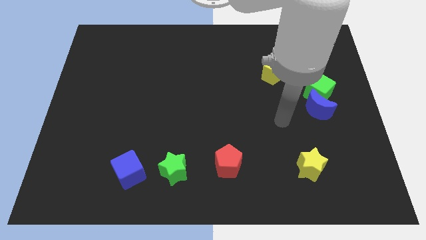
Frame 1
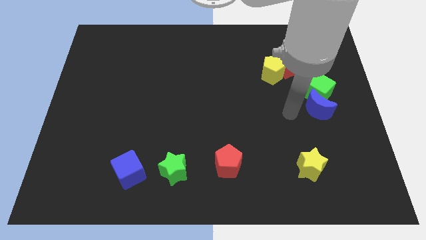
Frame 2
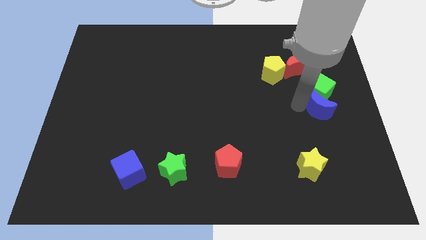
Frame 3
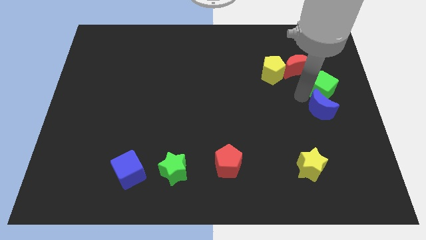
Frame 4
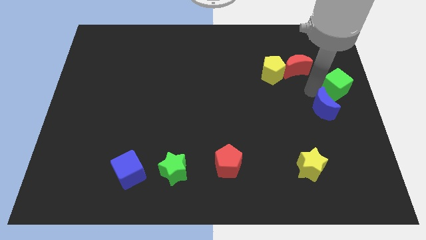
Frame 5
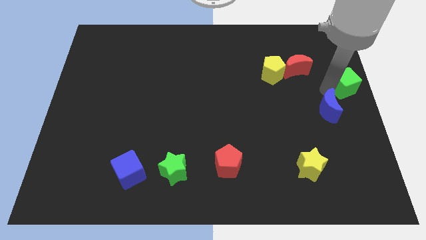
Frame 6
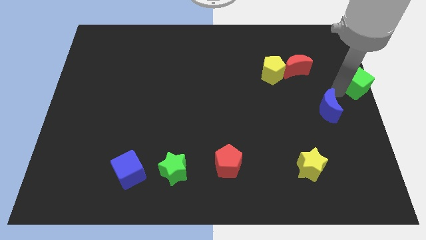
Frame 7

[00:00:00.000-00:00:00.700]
move the blue moon away from the green cube

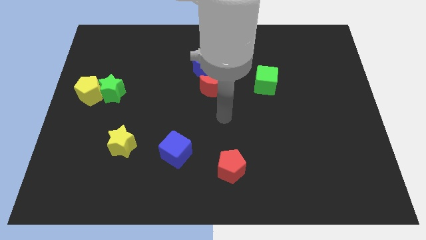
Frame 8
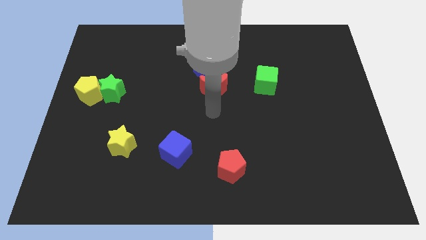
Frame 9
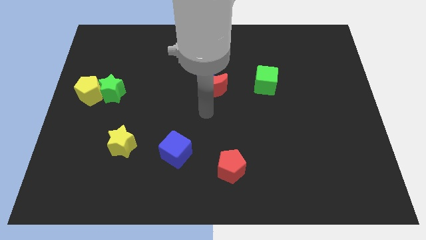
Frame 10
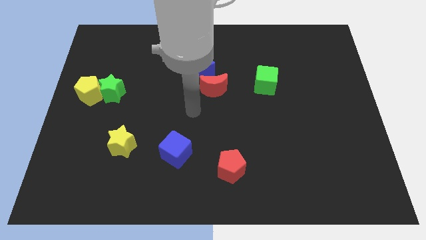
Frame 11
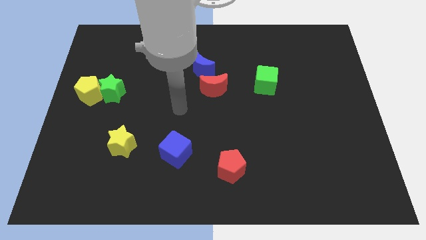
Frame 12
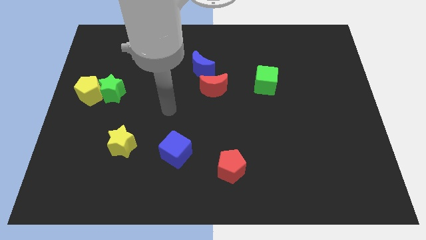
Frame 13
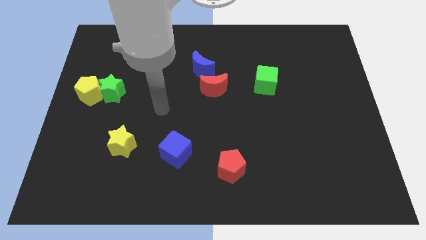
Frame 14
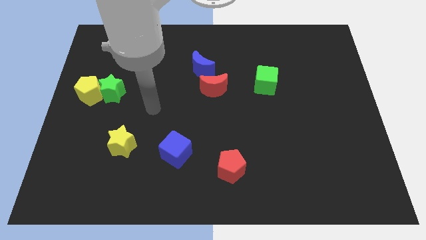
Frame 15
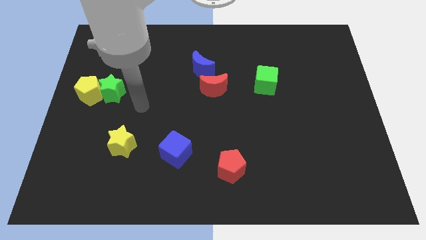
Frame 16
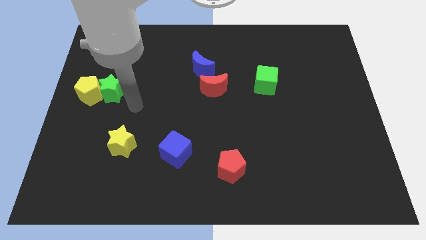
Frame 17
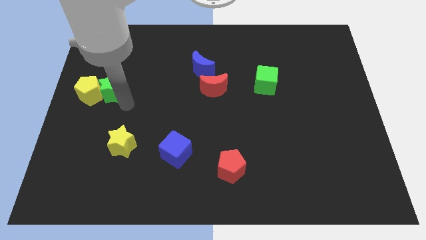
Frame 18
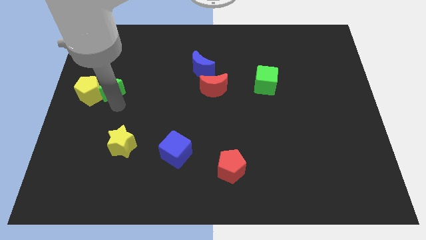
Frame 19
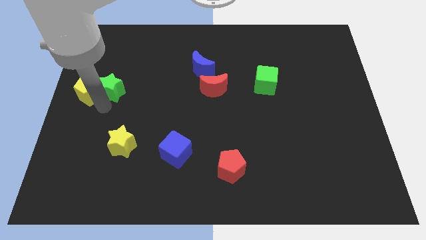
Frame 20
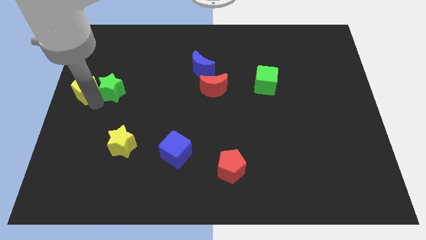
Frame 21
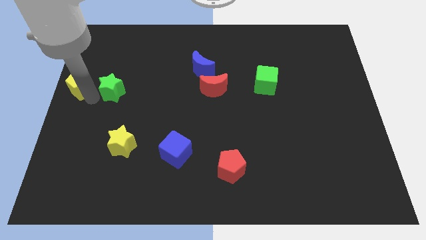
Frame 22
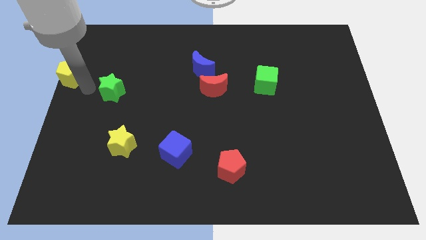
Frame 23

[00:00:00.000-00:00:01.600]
move the green star away from the yellow pentagon

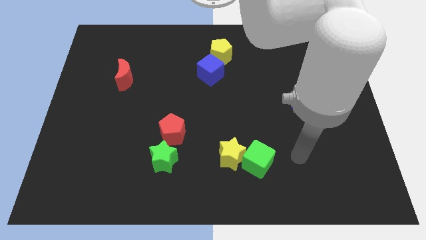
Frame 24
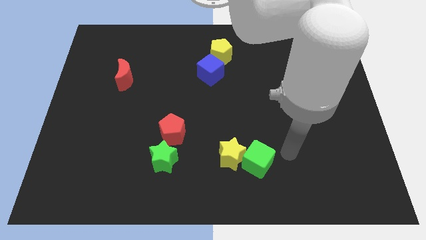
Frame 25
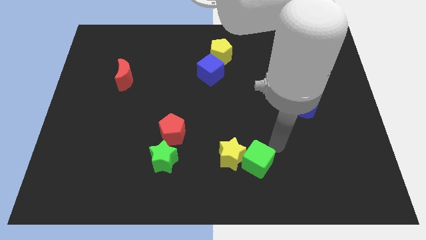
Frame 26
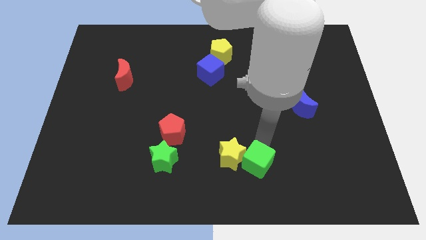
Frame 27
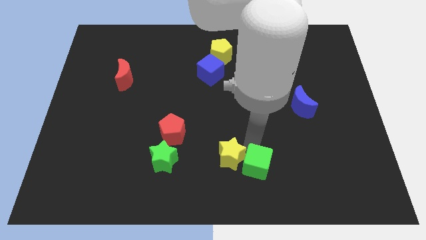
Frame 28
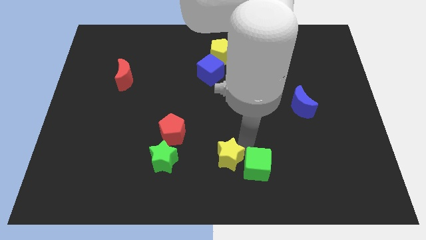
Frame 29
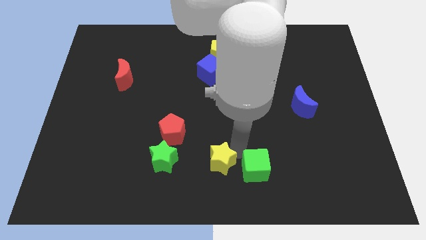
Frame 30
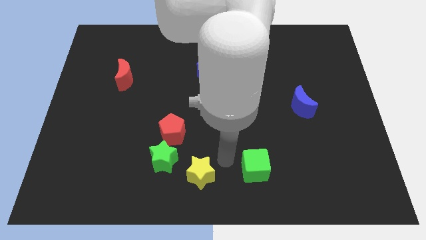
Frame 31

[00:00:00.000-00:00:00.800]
move the green cube away from the yellow star

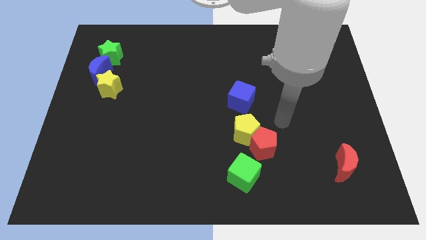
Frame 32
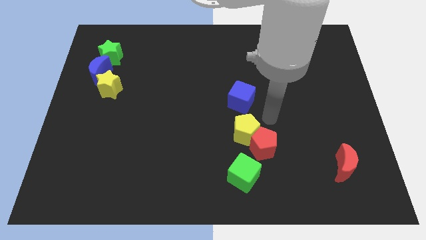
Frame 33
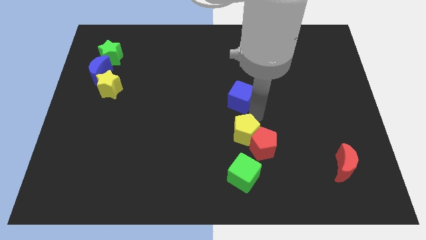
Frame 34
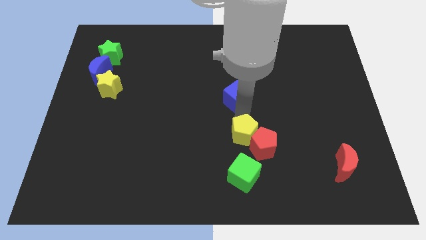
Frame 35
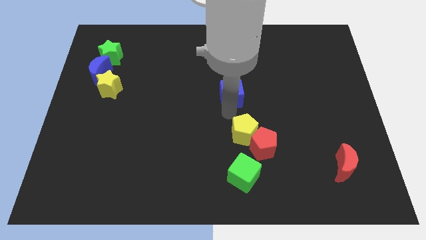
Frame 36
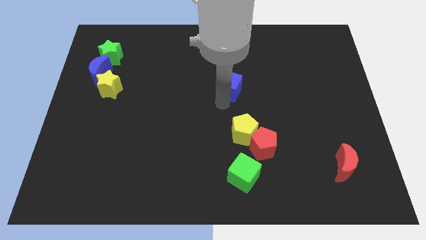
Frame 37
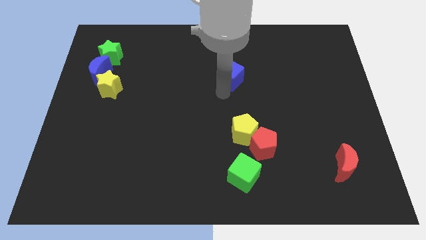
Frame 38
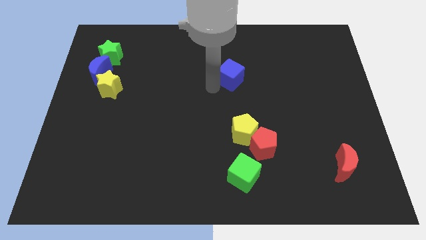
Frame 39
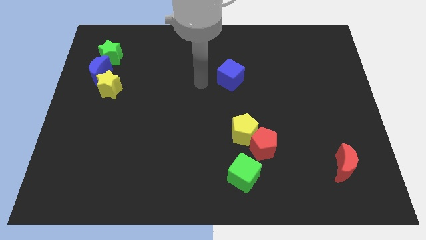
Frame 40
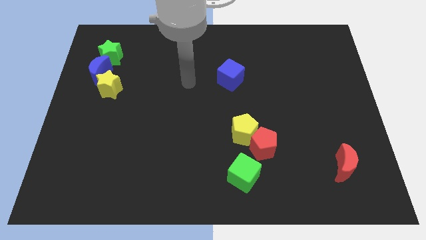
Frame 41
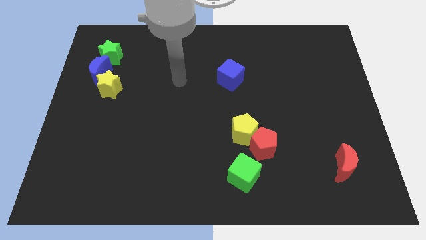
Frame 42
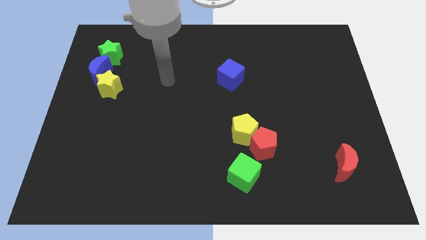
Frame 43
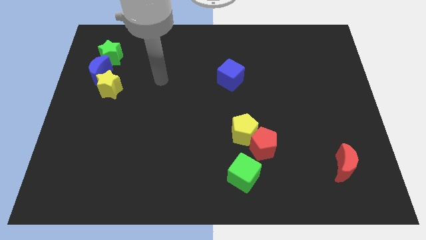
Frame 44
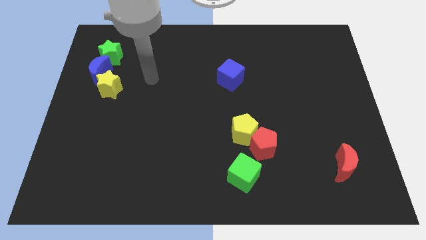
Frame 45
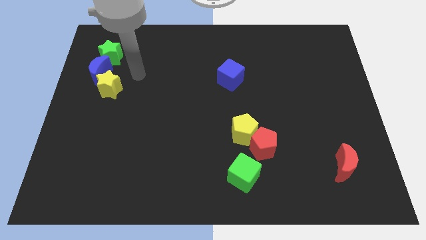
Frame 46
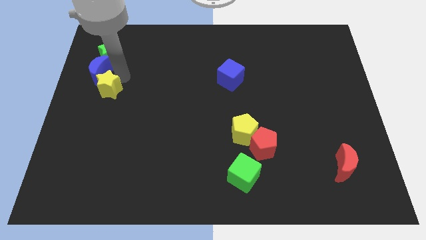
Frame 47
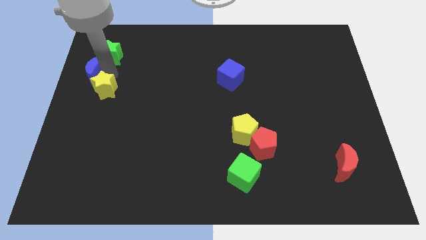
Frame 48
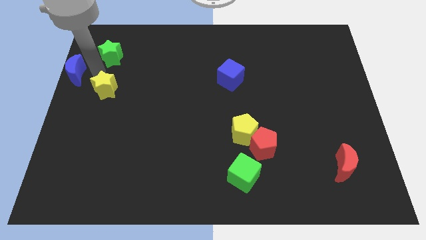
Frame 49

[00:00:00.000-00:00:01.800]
pull the yellow star apart from the blue moon

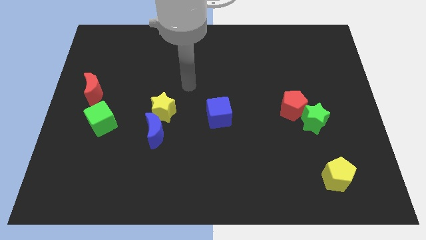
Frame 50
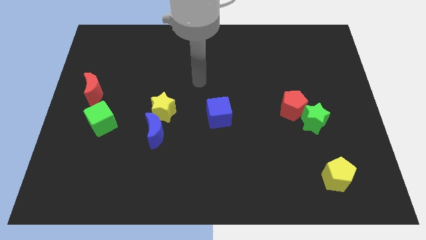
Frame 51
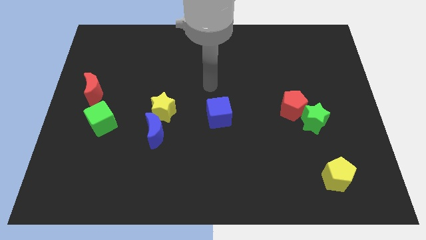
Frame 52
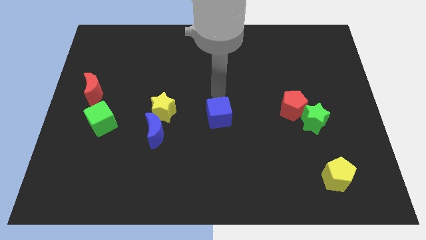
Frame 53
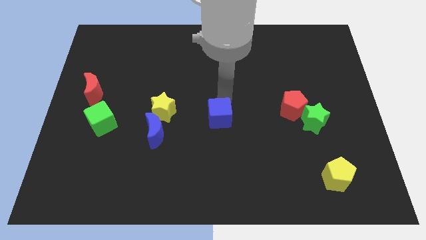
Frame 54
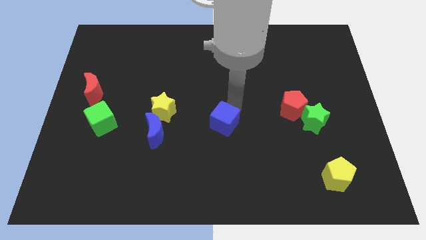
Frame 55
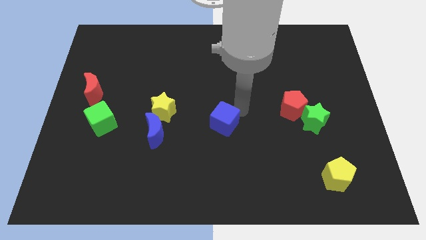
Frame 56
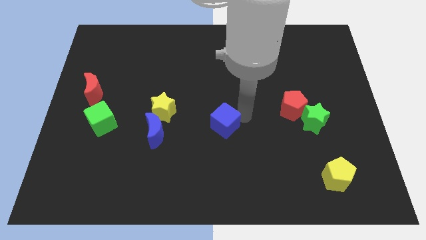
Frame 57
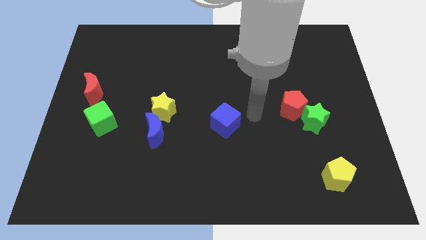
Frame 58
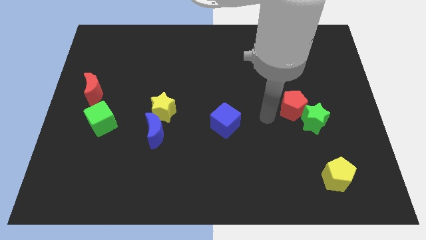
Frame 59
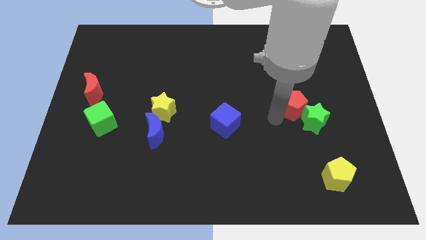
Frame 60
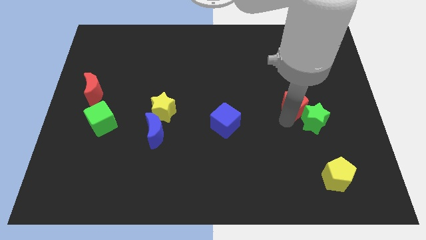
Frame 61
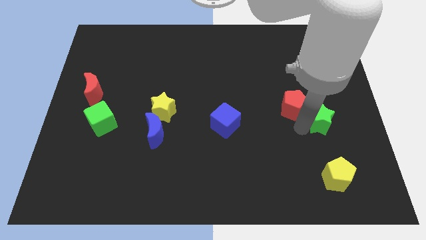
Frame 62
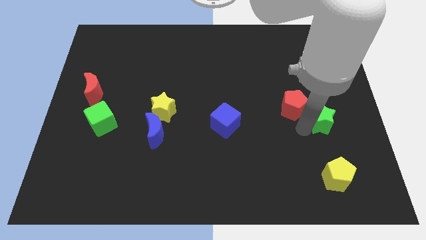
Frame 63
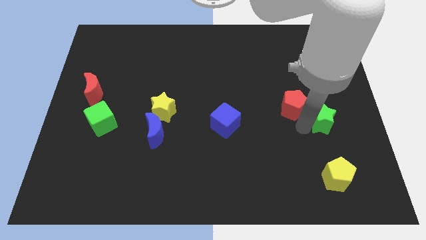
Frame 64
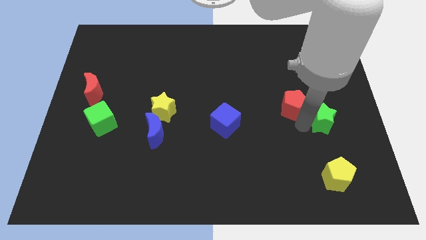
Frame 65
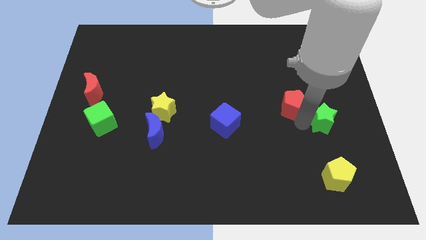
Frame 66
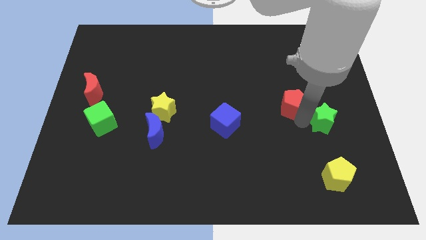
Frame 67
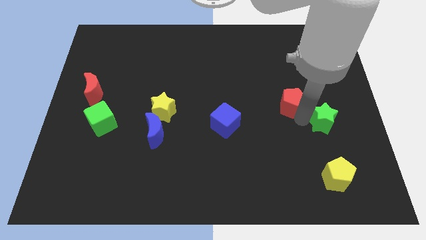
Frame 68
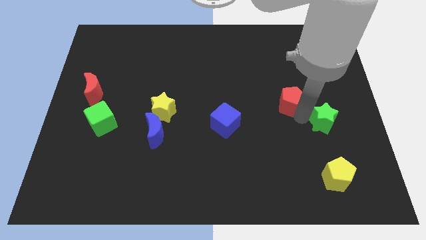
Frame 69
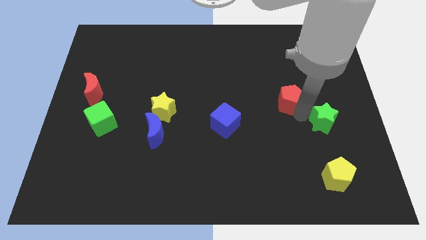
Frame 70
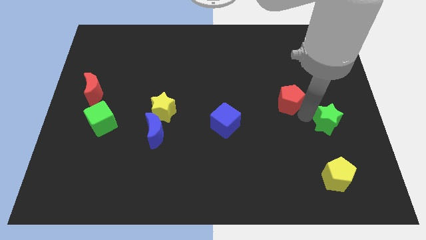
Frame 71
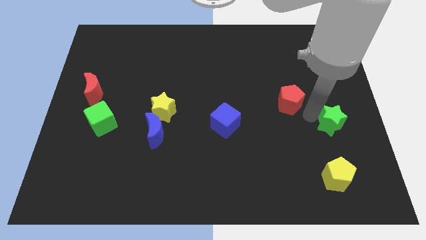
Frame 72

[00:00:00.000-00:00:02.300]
separate the red pentagon from the green star

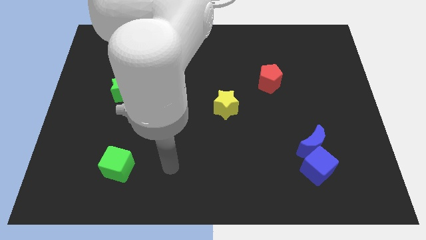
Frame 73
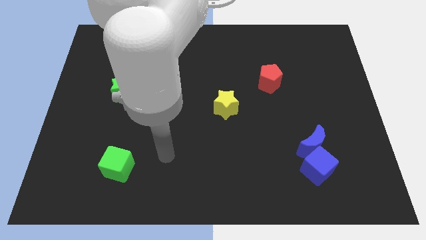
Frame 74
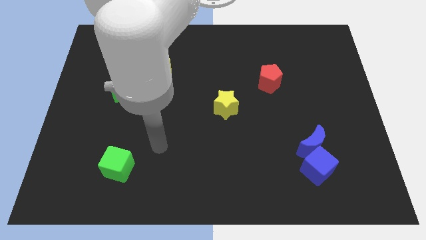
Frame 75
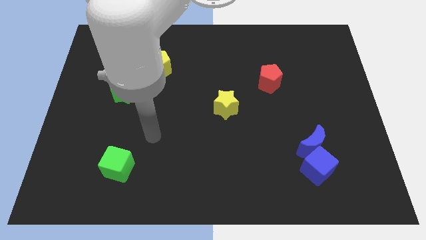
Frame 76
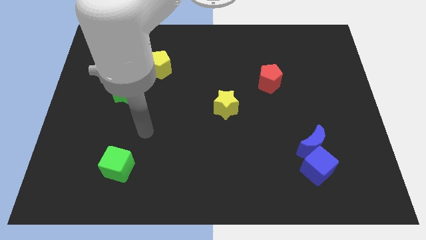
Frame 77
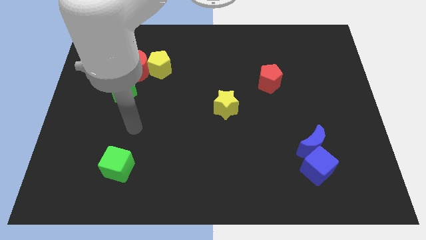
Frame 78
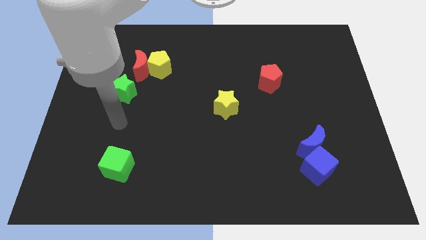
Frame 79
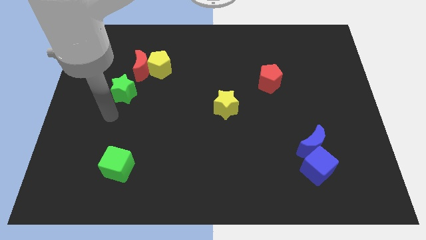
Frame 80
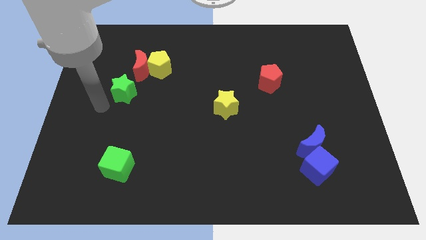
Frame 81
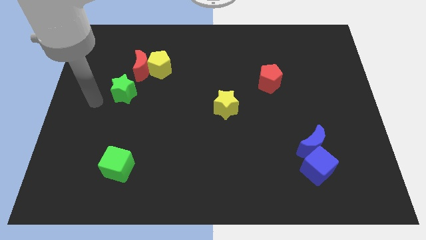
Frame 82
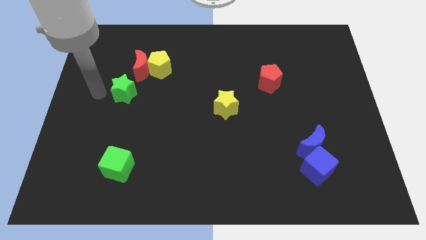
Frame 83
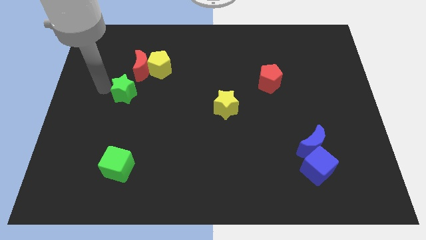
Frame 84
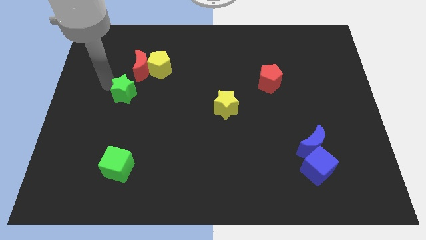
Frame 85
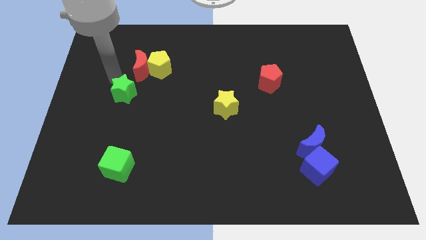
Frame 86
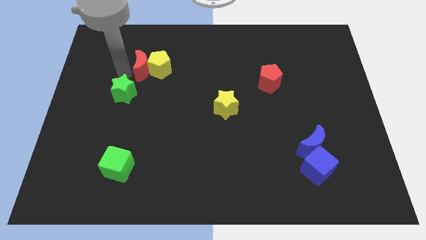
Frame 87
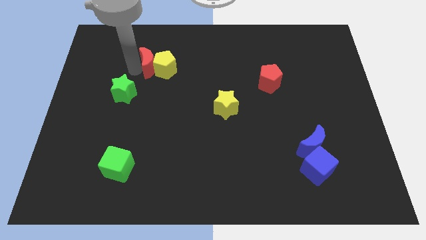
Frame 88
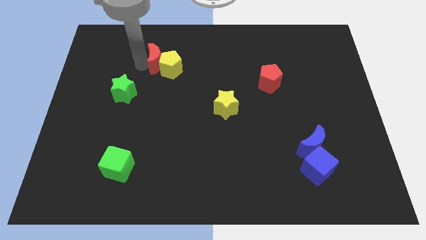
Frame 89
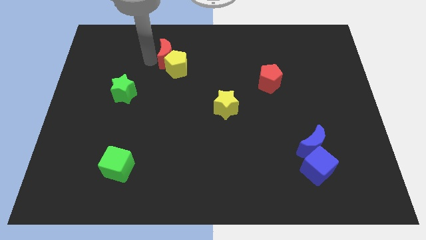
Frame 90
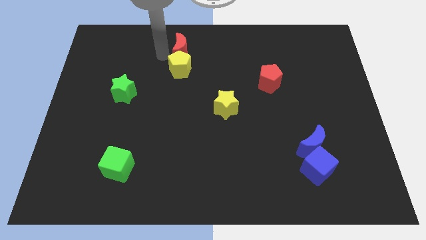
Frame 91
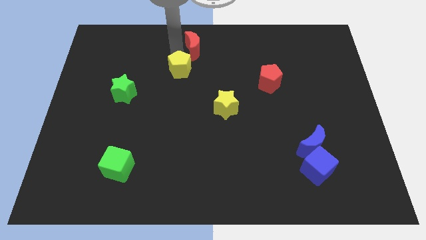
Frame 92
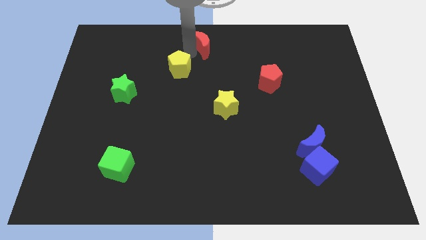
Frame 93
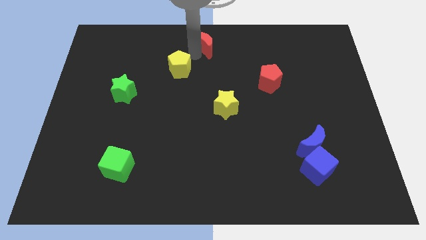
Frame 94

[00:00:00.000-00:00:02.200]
move the yellow pentagon away from the red moon
